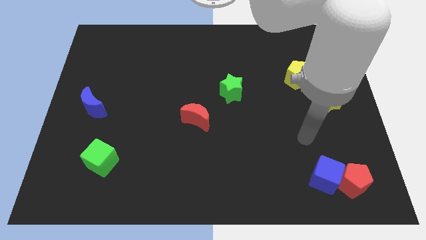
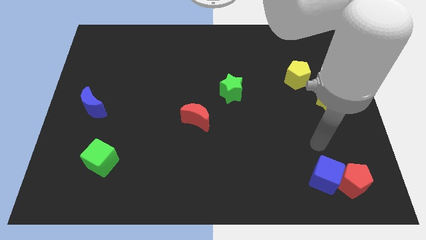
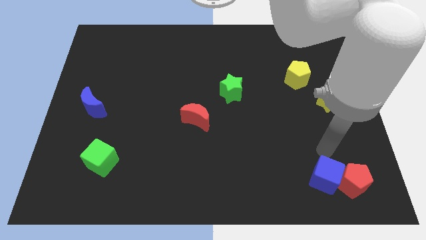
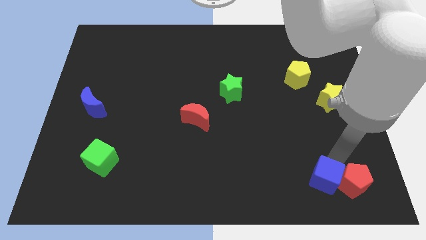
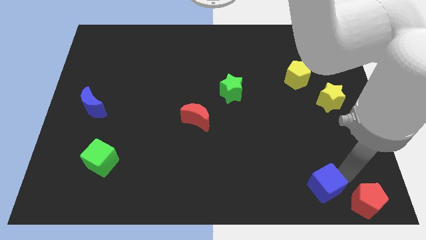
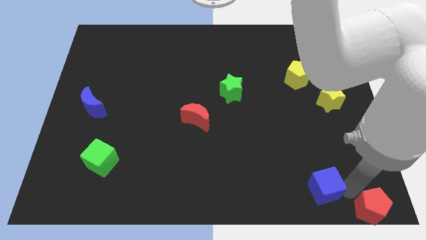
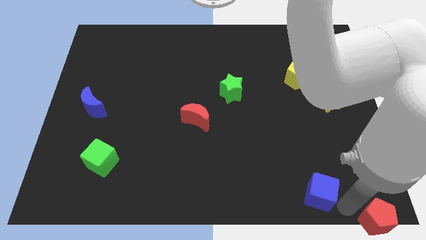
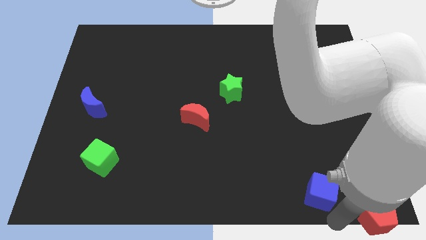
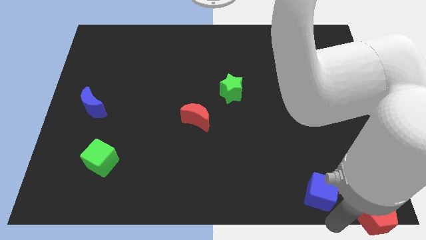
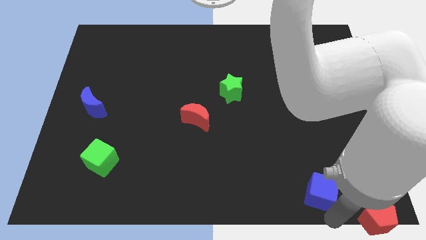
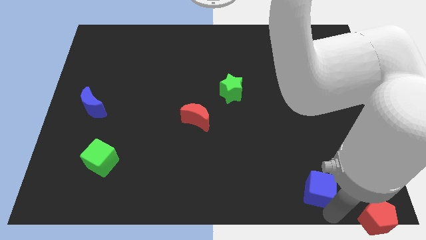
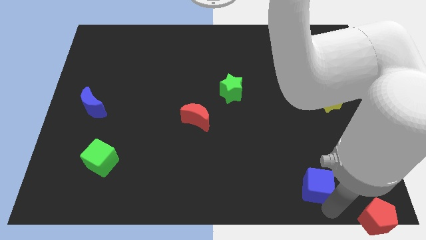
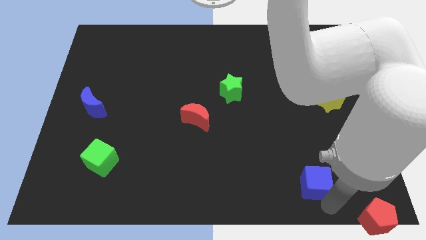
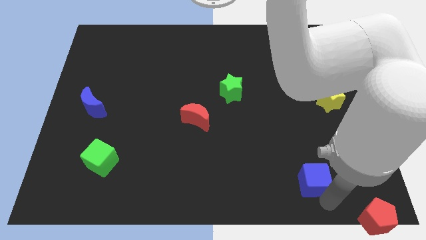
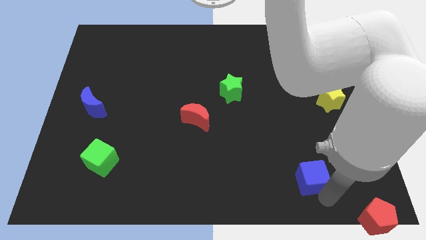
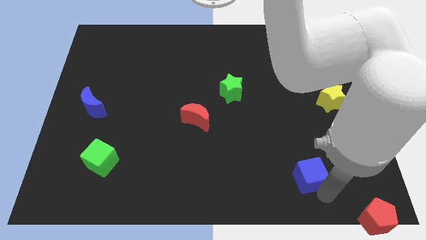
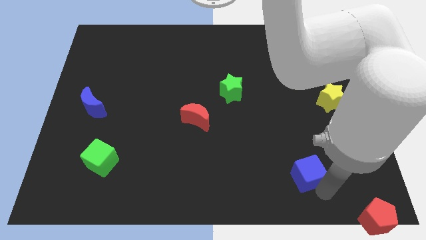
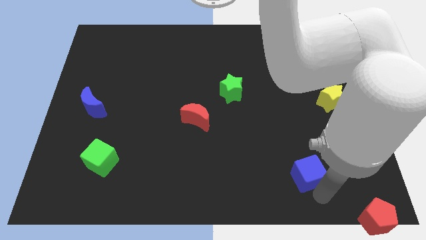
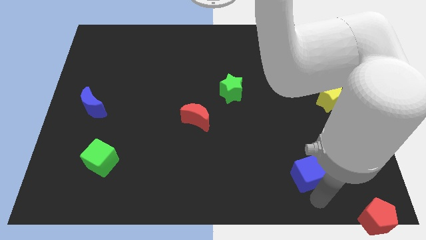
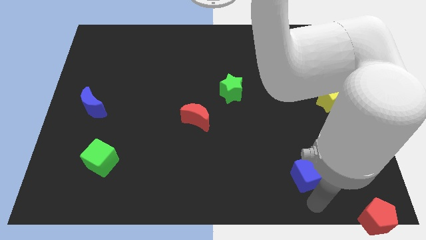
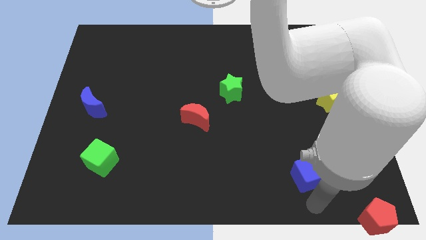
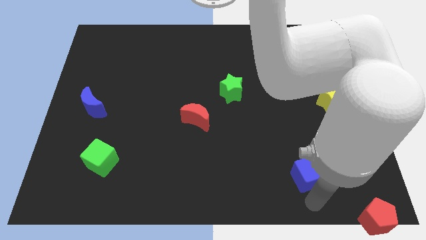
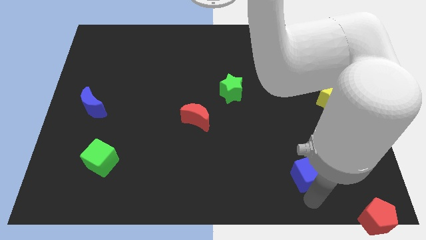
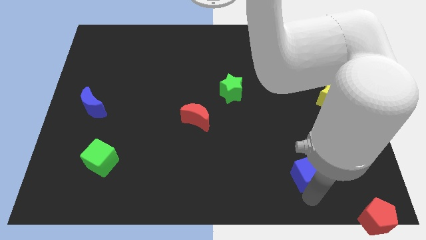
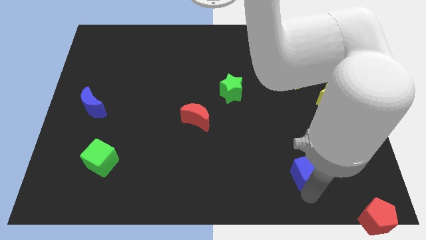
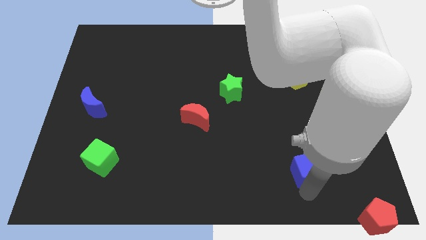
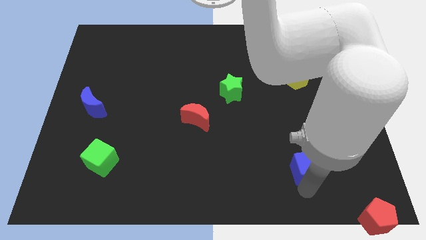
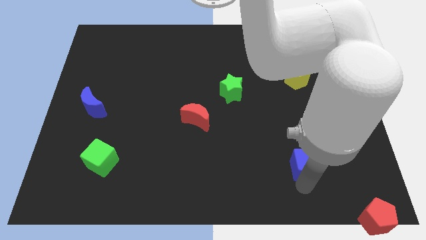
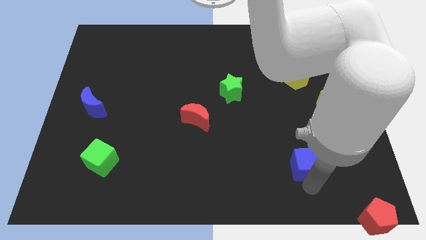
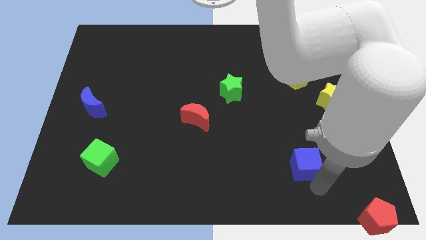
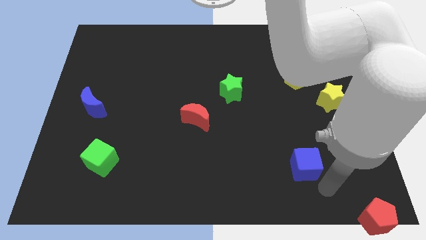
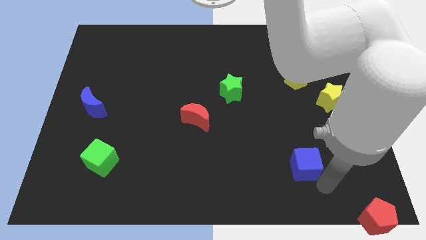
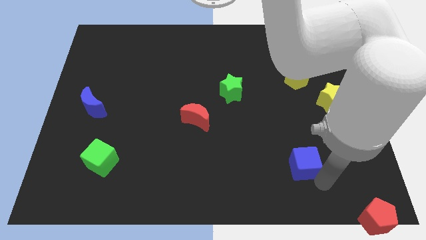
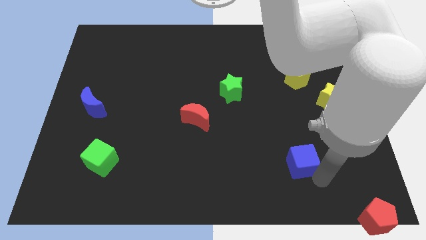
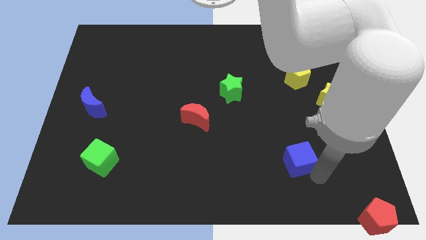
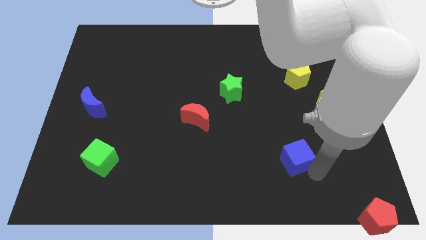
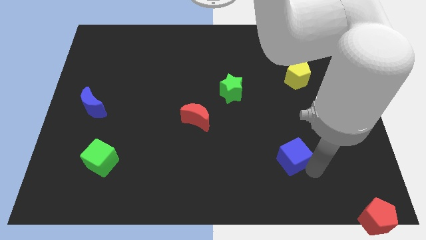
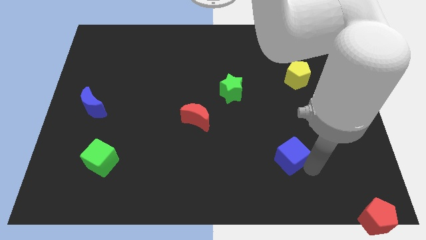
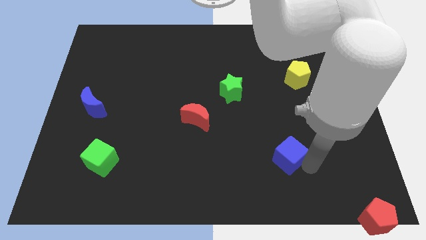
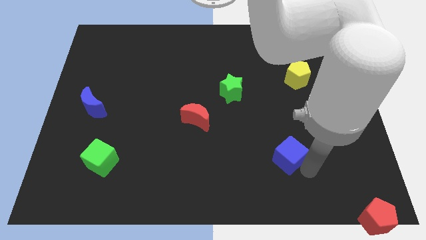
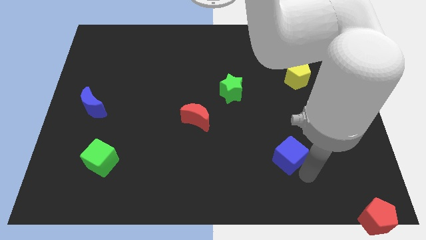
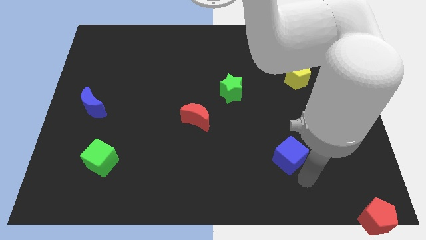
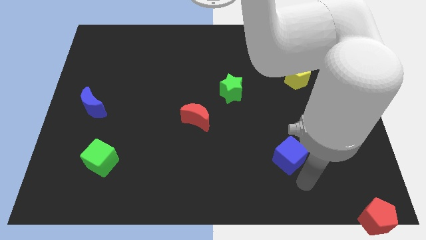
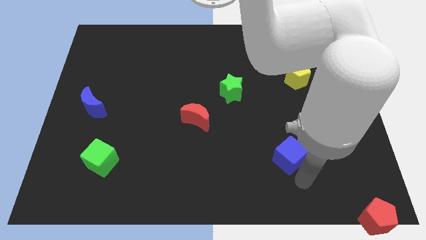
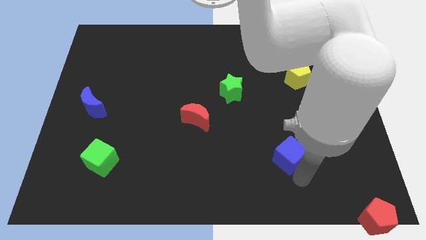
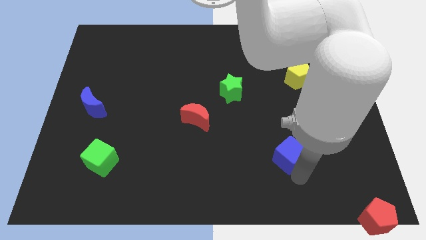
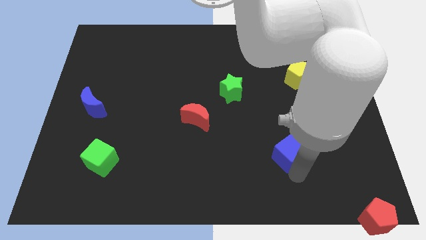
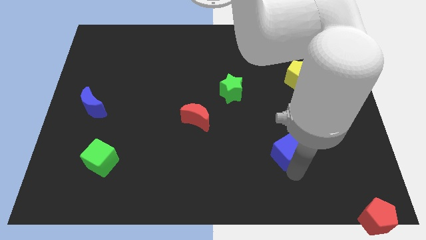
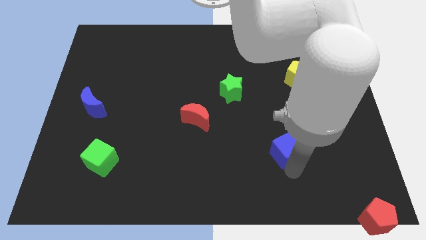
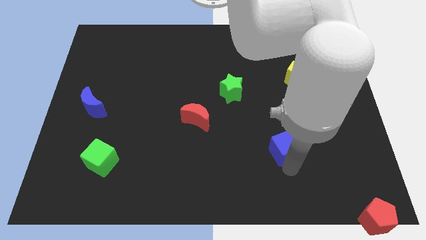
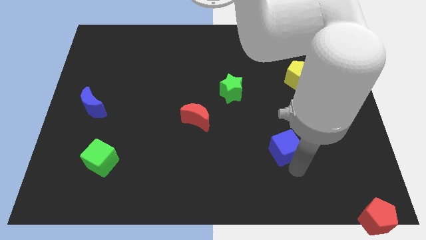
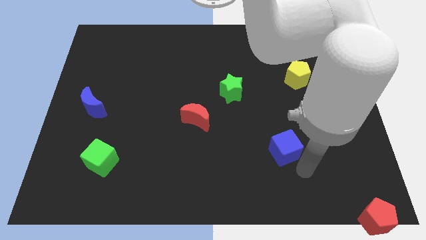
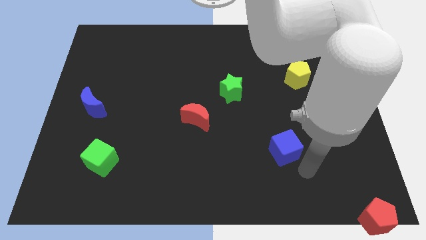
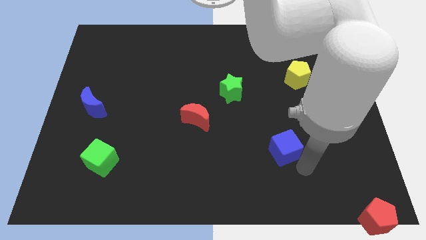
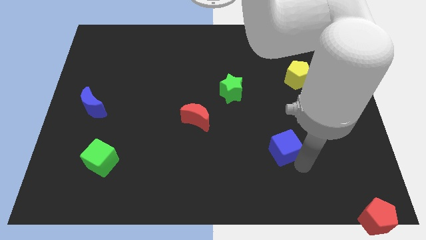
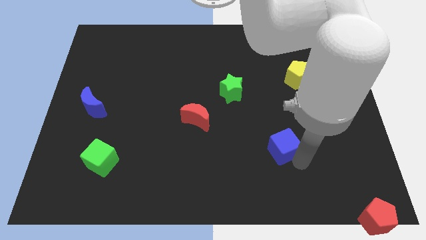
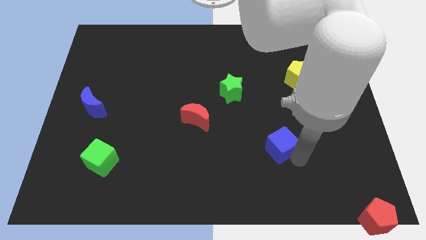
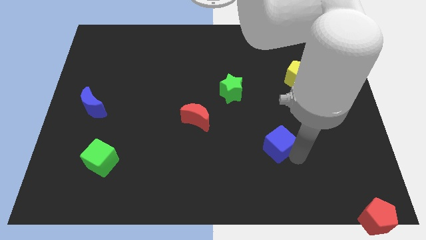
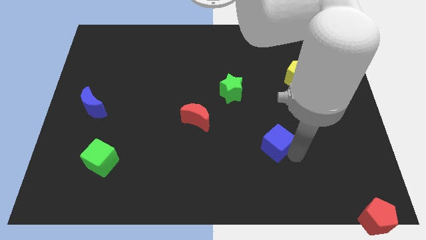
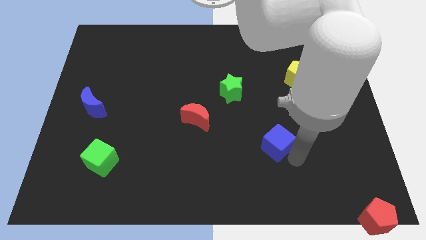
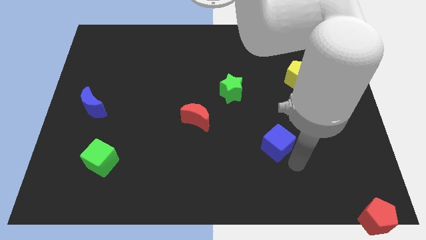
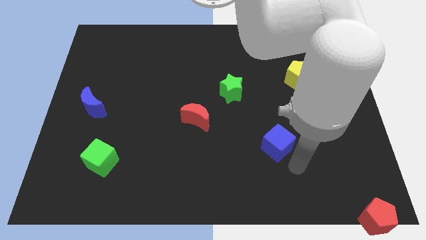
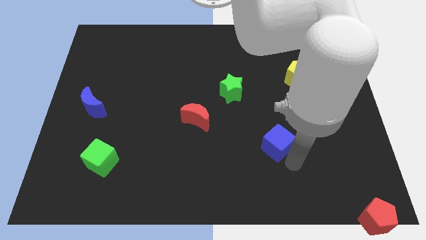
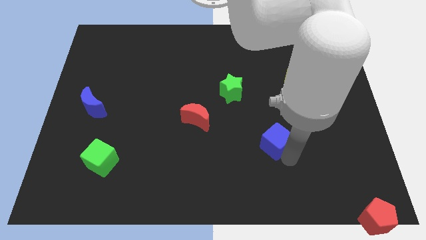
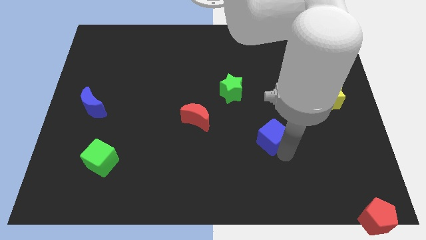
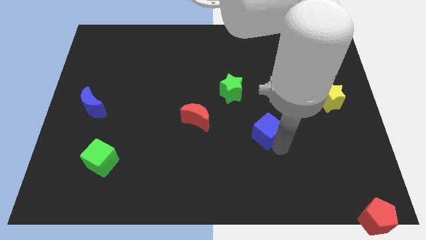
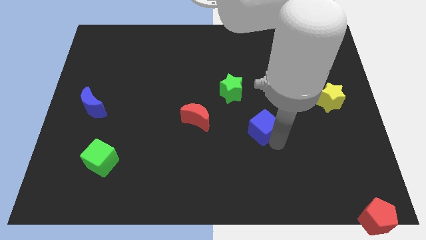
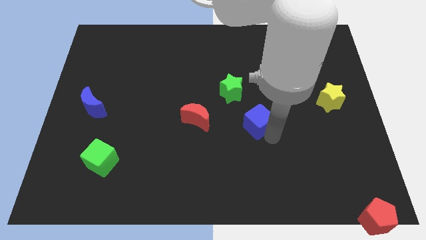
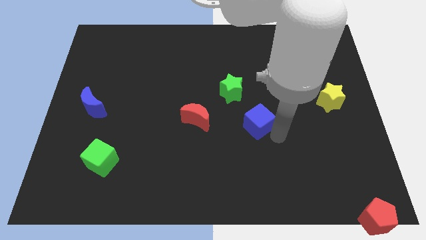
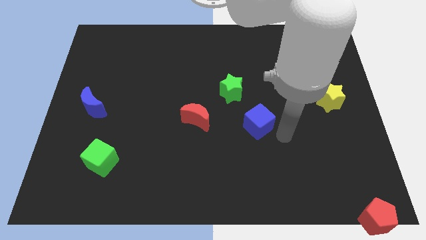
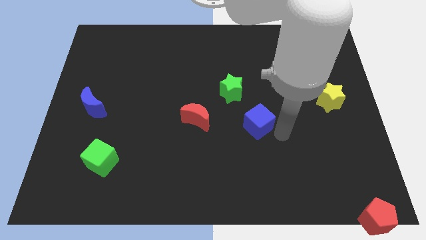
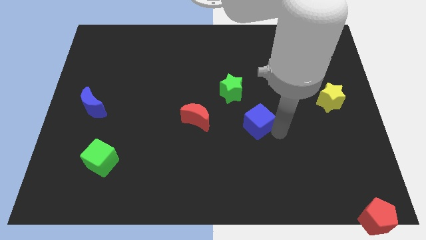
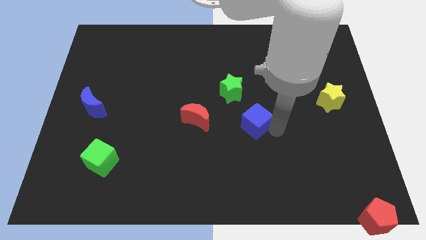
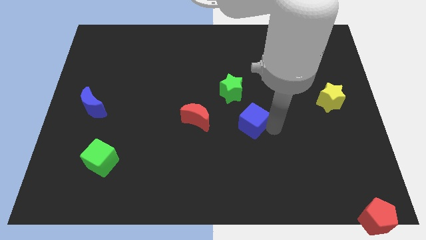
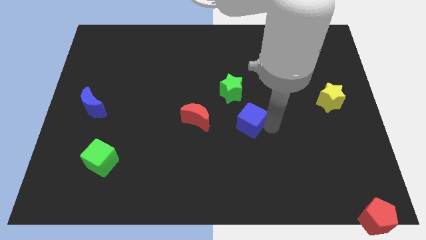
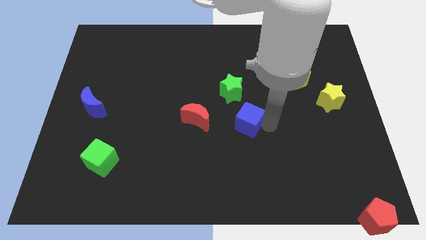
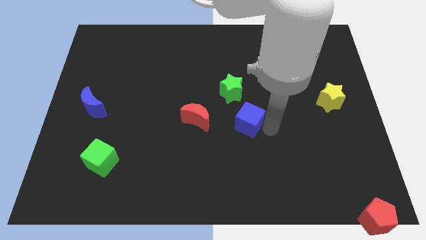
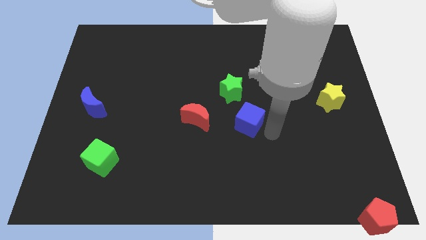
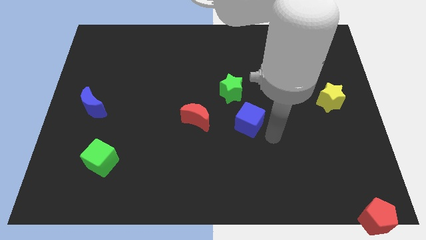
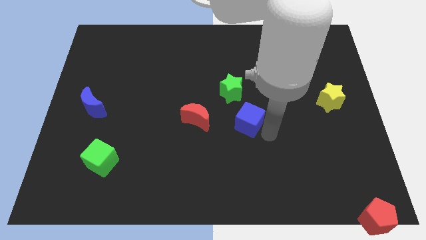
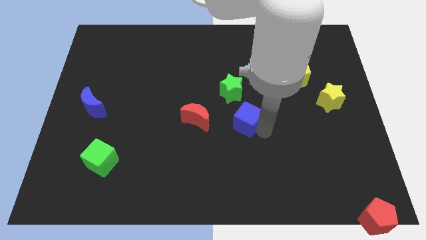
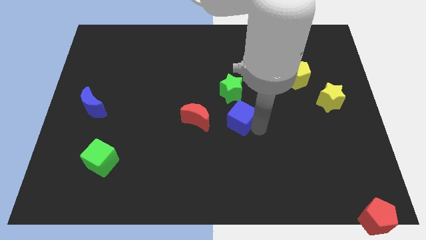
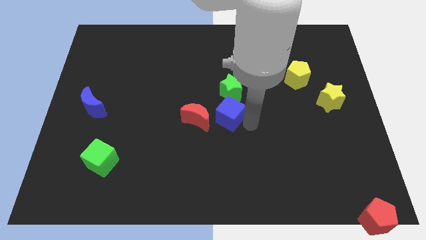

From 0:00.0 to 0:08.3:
put the blue cube diagonally down and to the left of the green star

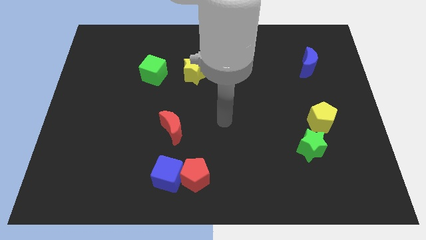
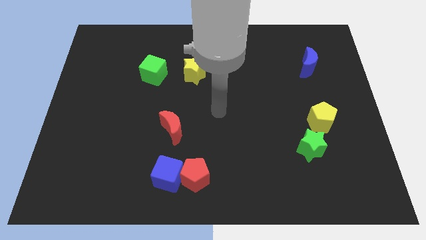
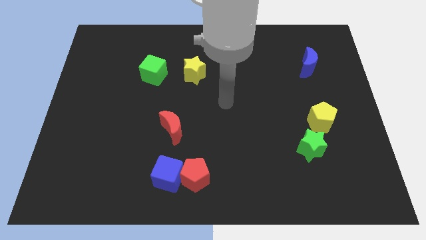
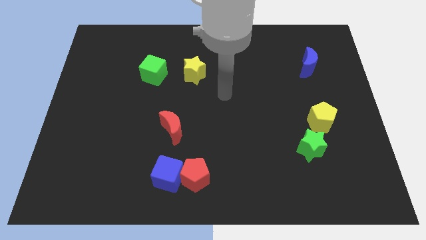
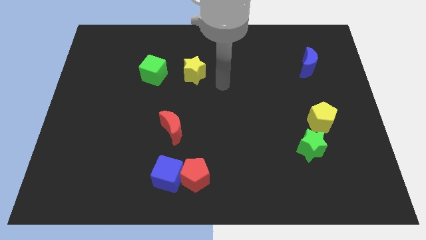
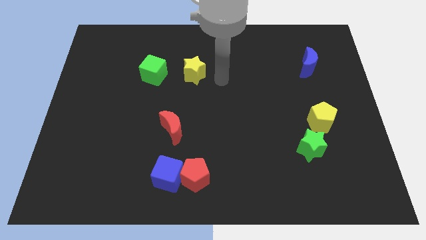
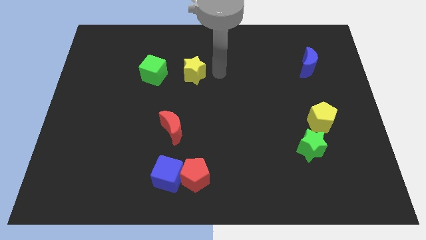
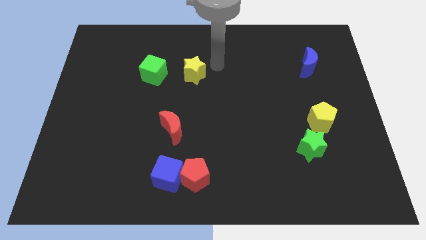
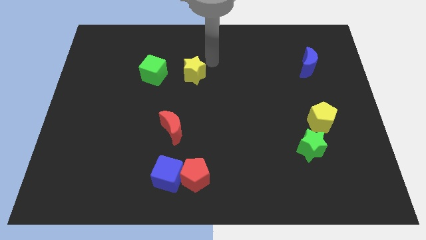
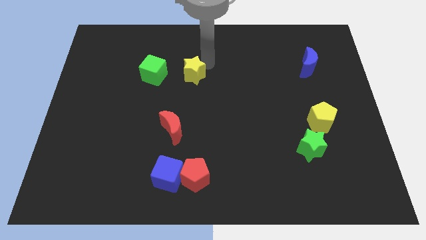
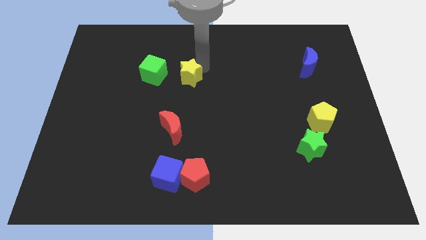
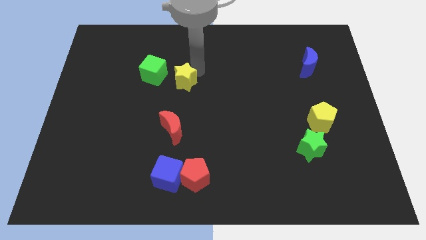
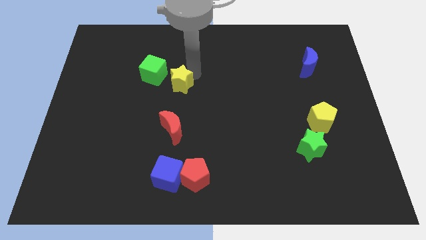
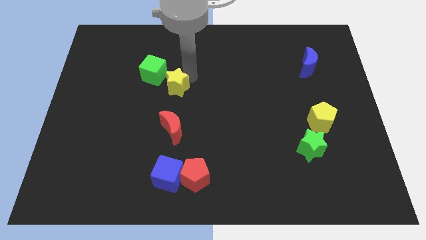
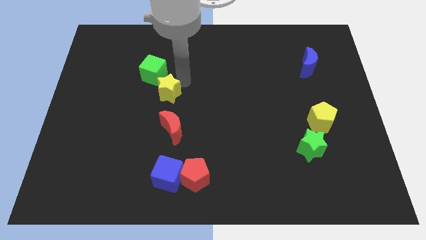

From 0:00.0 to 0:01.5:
slide the yellow star to the bottom side of the green cube
